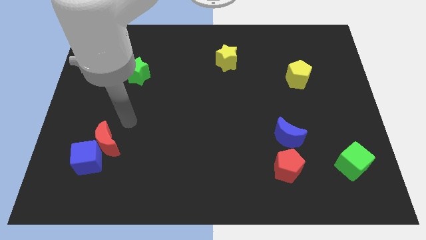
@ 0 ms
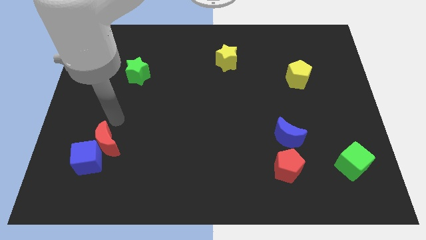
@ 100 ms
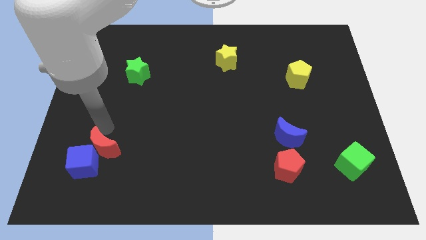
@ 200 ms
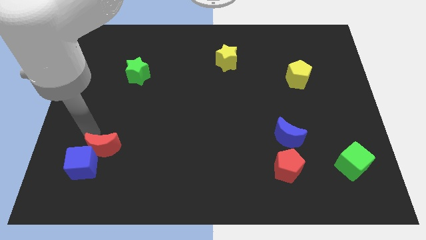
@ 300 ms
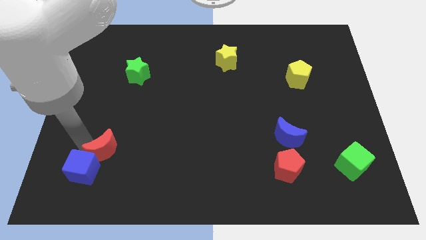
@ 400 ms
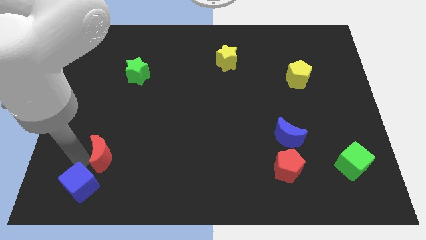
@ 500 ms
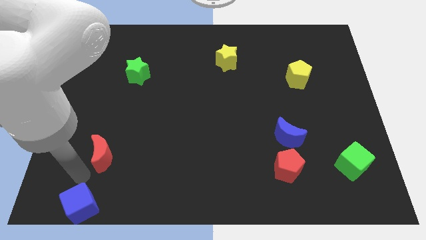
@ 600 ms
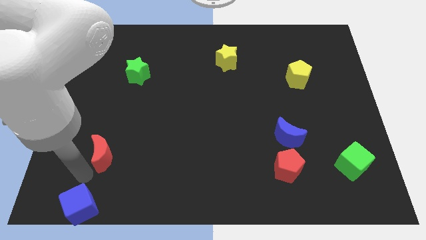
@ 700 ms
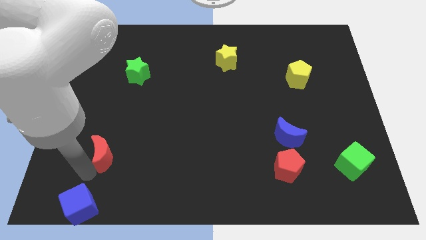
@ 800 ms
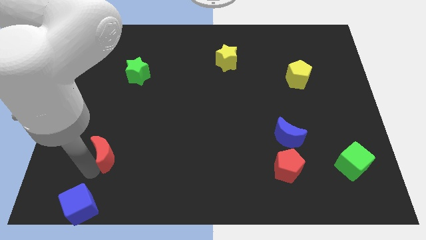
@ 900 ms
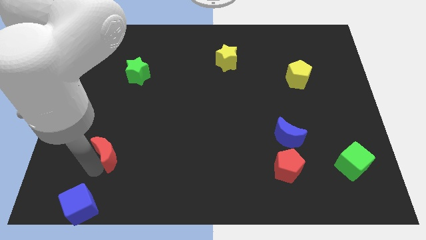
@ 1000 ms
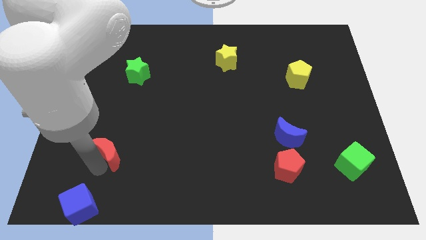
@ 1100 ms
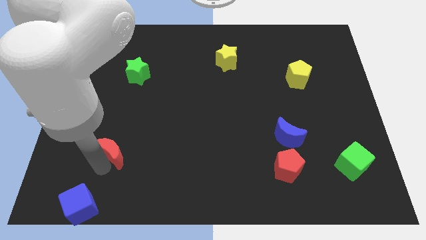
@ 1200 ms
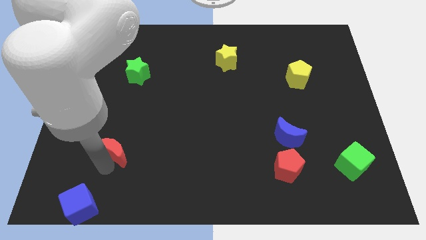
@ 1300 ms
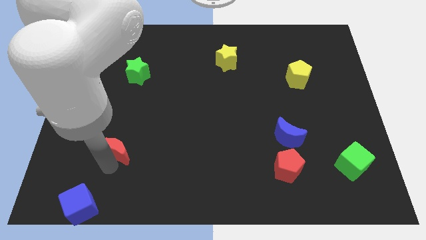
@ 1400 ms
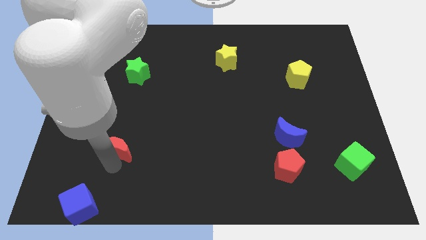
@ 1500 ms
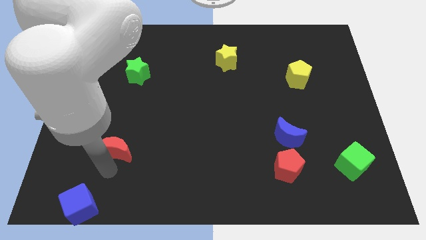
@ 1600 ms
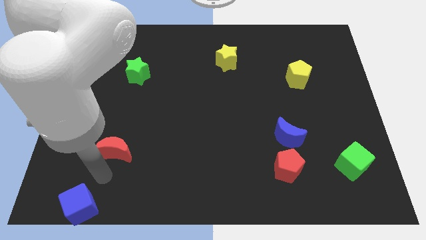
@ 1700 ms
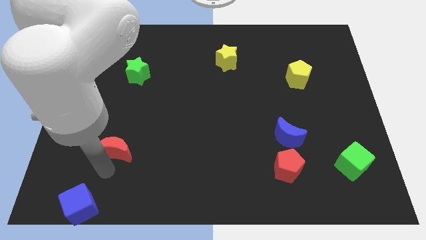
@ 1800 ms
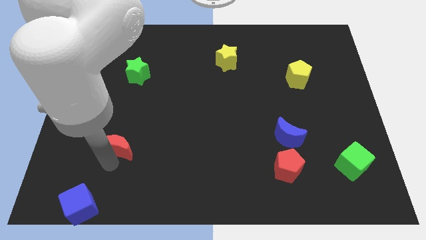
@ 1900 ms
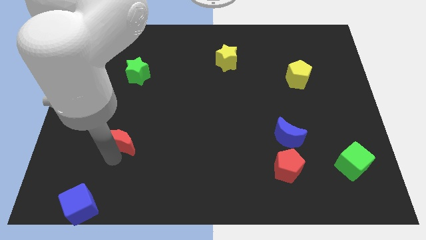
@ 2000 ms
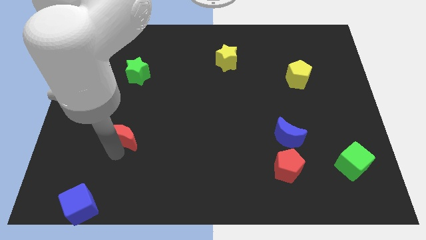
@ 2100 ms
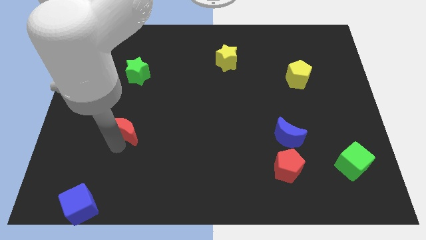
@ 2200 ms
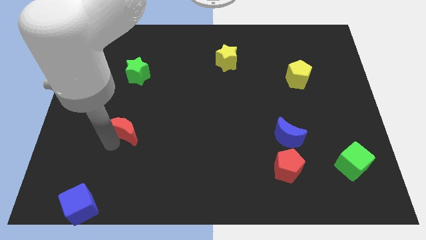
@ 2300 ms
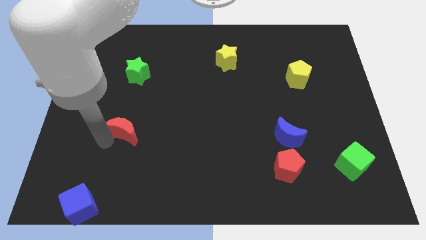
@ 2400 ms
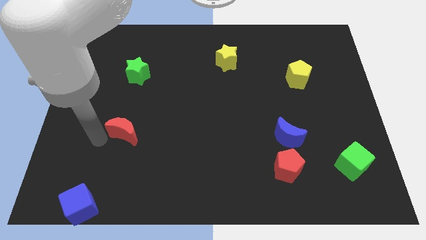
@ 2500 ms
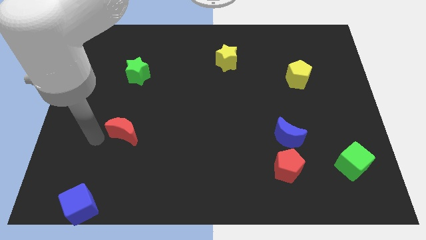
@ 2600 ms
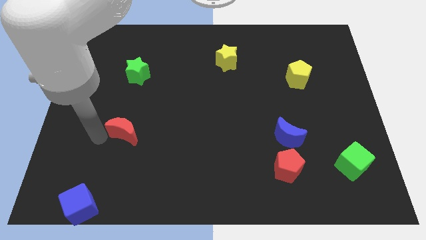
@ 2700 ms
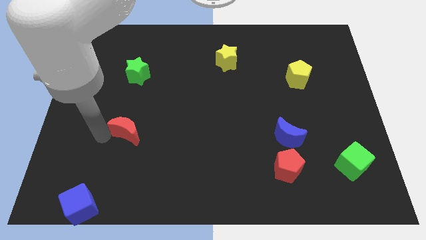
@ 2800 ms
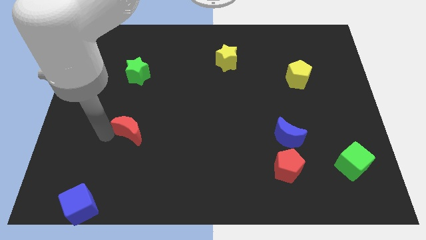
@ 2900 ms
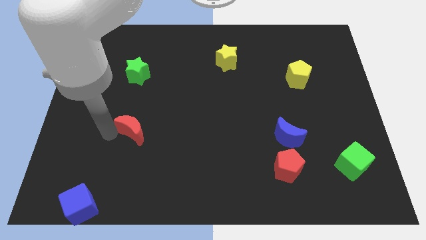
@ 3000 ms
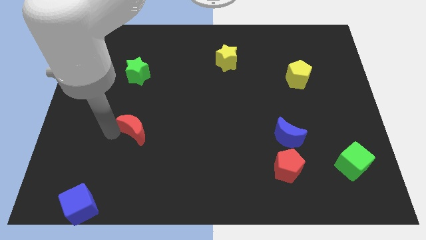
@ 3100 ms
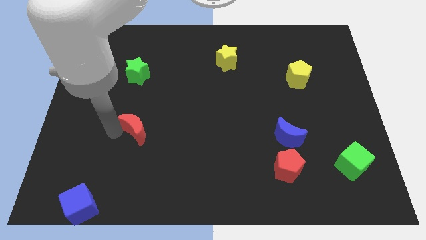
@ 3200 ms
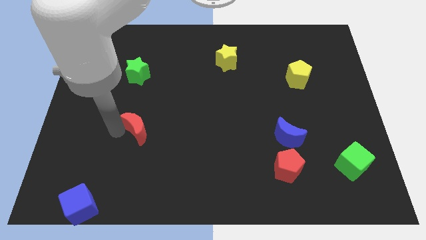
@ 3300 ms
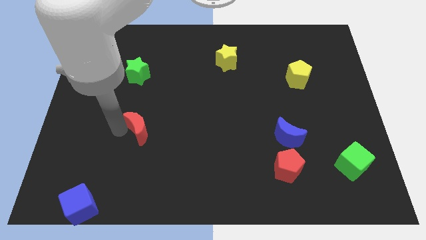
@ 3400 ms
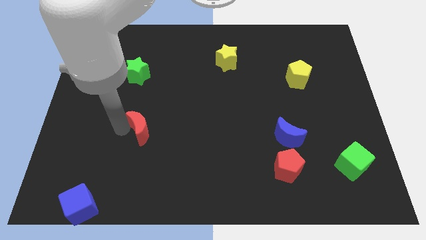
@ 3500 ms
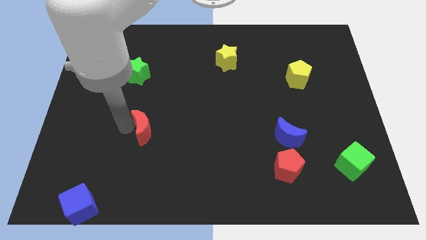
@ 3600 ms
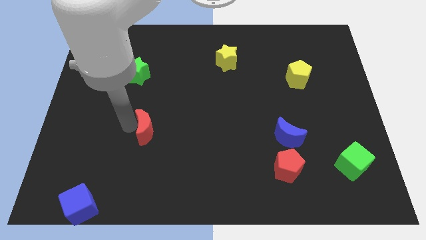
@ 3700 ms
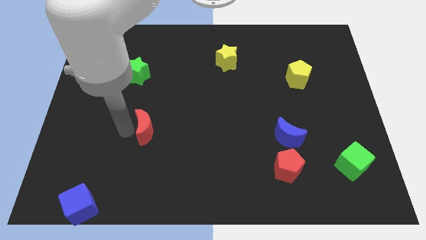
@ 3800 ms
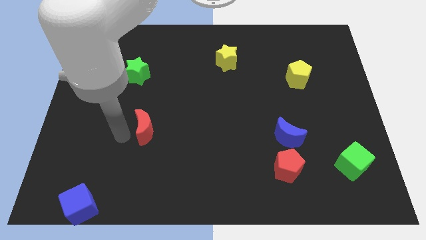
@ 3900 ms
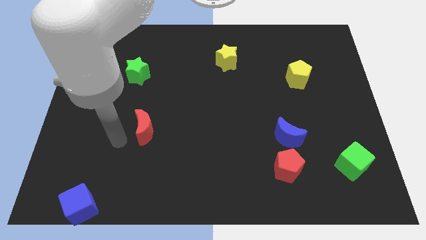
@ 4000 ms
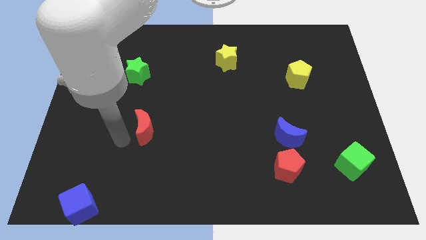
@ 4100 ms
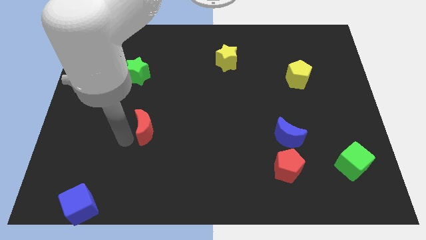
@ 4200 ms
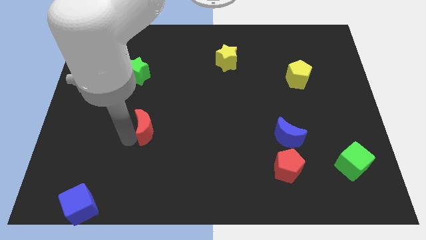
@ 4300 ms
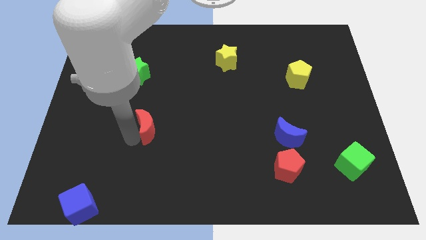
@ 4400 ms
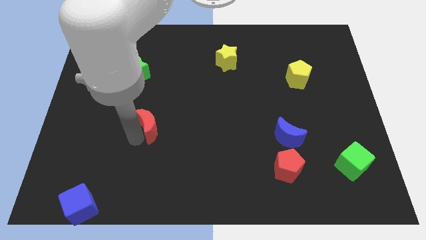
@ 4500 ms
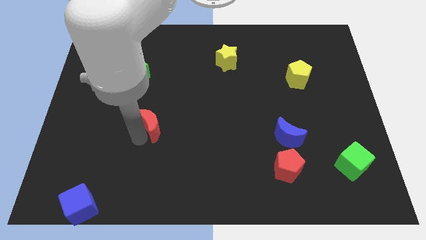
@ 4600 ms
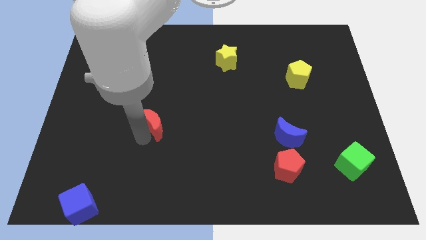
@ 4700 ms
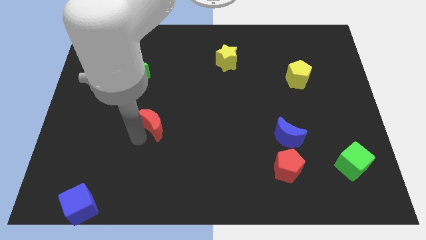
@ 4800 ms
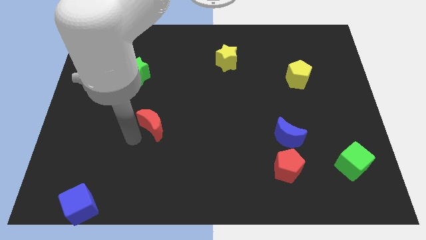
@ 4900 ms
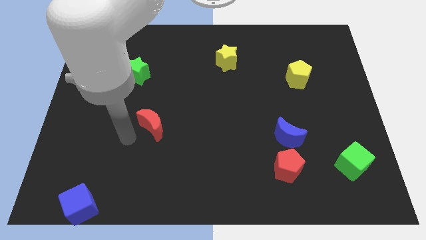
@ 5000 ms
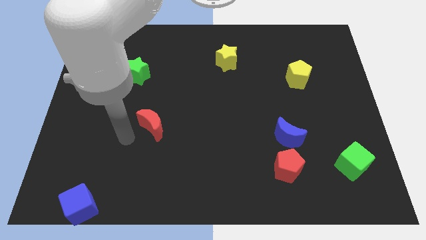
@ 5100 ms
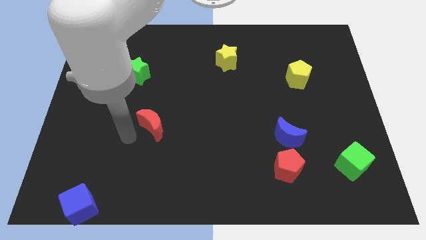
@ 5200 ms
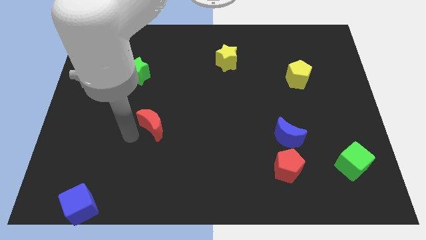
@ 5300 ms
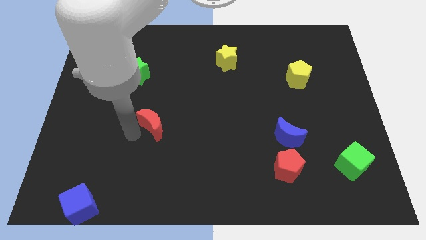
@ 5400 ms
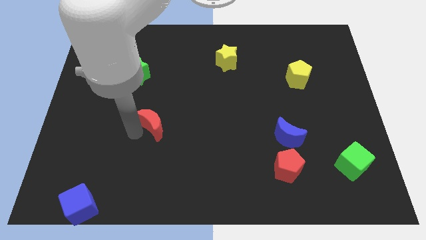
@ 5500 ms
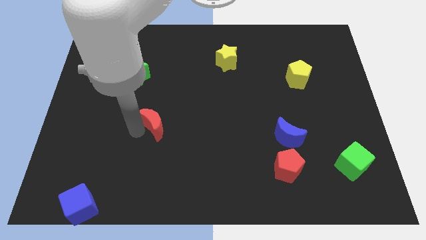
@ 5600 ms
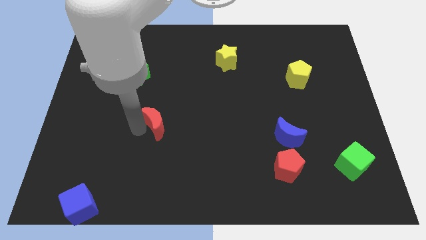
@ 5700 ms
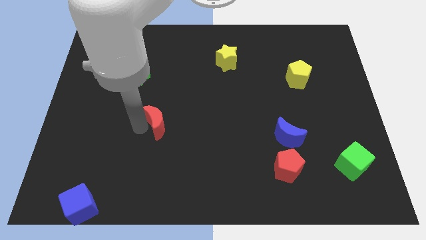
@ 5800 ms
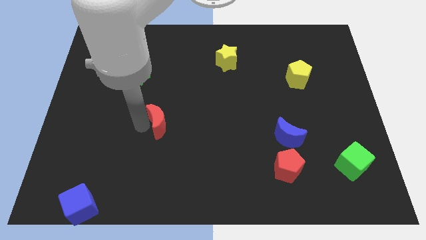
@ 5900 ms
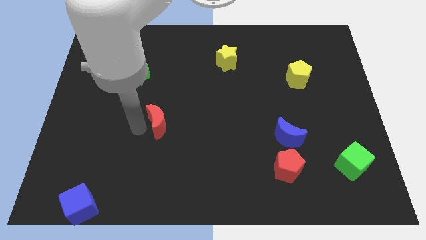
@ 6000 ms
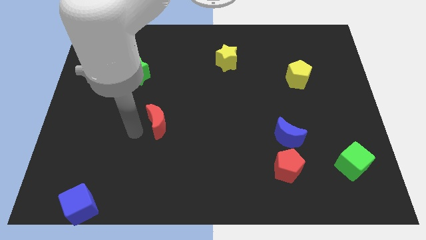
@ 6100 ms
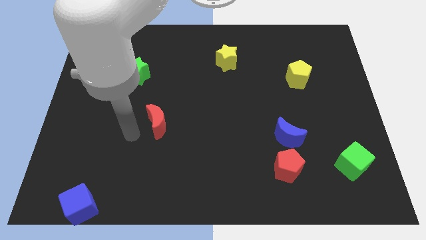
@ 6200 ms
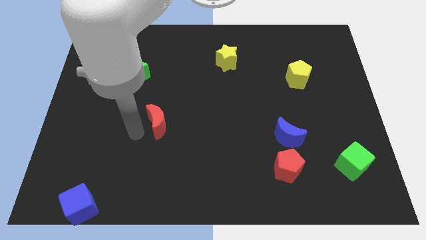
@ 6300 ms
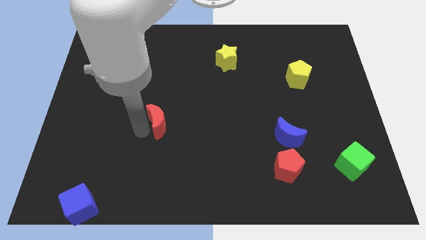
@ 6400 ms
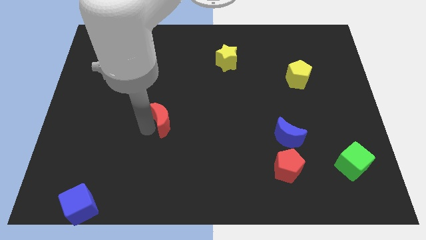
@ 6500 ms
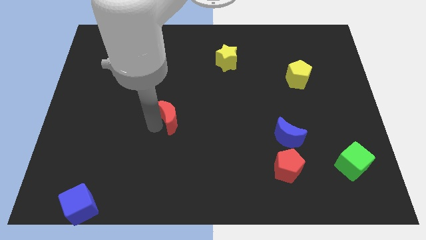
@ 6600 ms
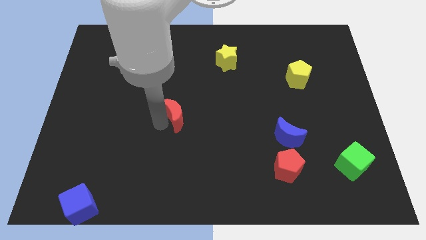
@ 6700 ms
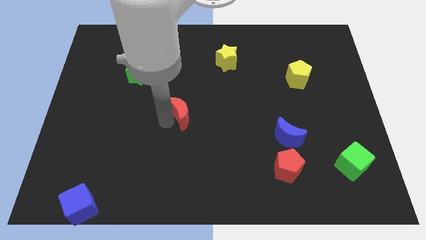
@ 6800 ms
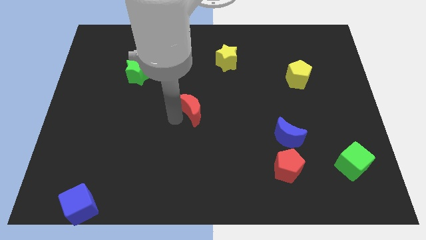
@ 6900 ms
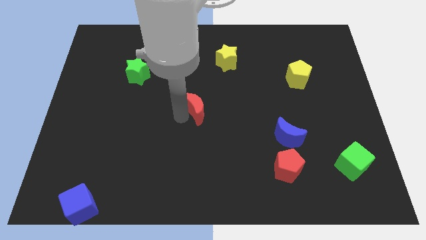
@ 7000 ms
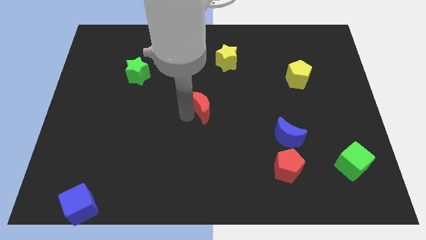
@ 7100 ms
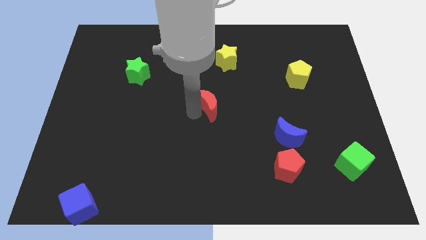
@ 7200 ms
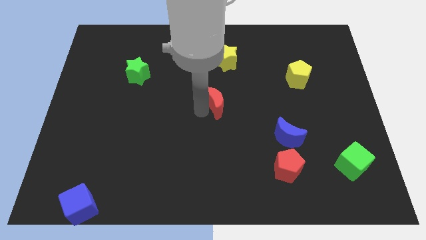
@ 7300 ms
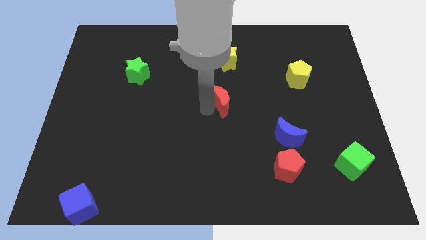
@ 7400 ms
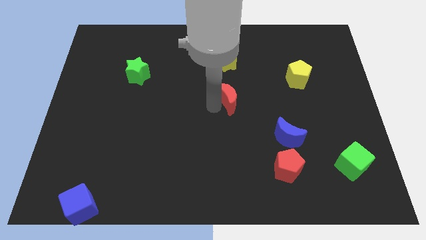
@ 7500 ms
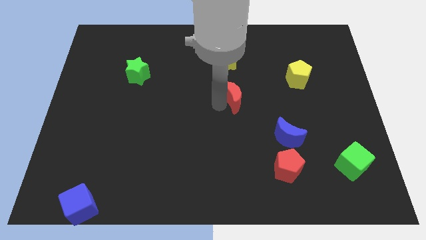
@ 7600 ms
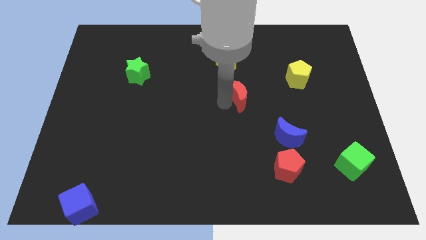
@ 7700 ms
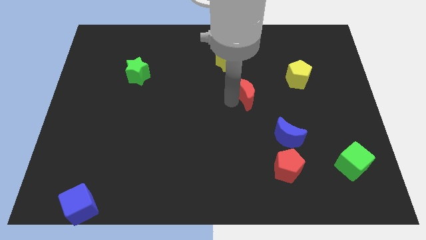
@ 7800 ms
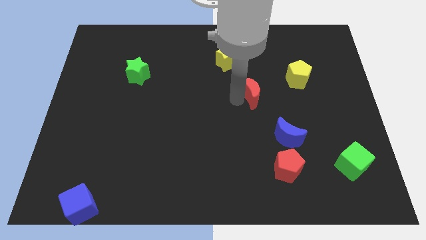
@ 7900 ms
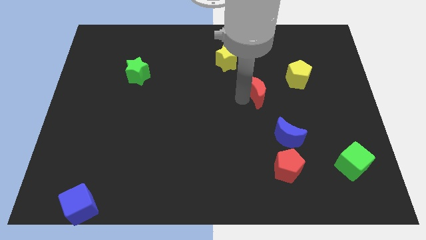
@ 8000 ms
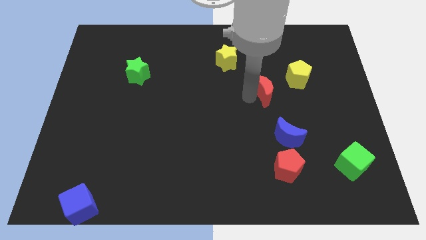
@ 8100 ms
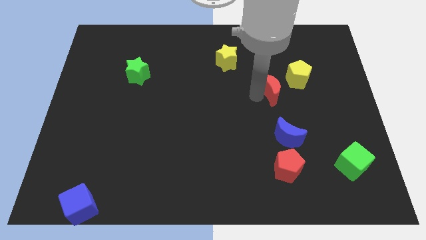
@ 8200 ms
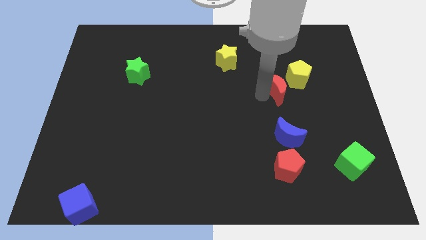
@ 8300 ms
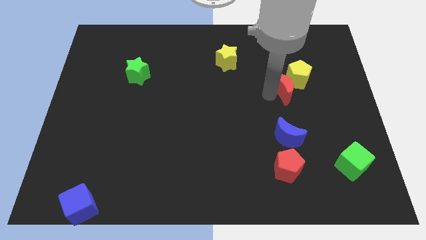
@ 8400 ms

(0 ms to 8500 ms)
move the red moon close to the yellow pentagon
